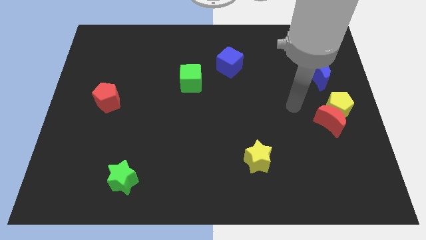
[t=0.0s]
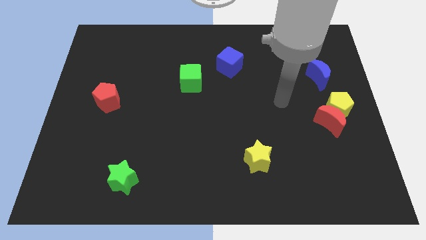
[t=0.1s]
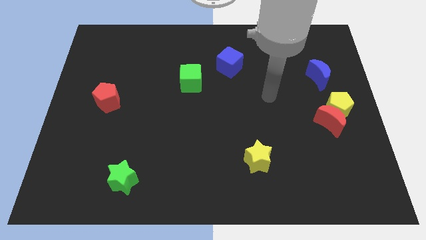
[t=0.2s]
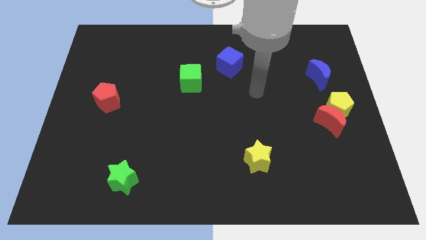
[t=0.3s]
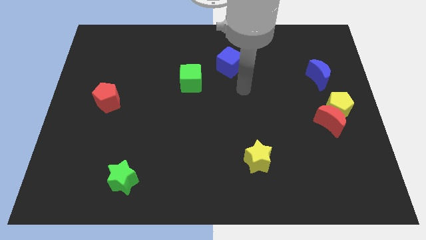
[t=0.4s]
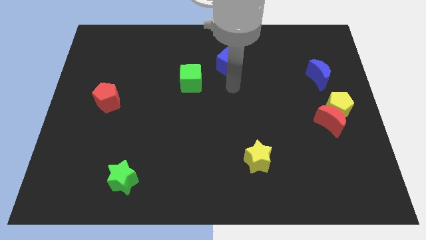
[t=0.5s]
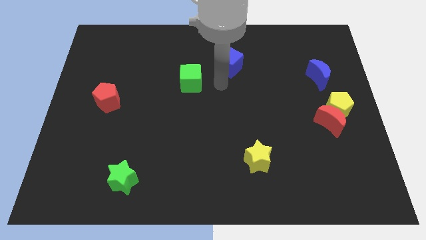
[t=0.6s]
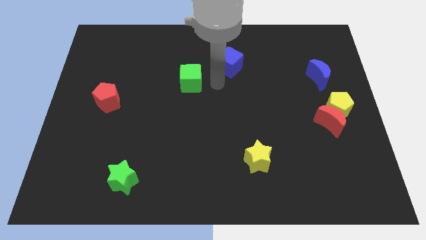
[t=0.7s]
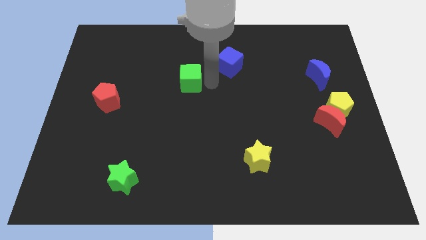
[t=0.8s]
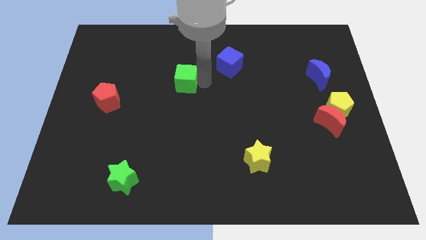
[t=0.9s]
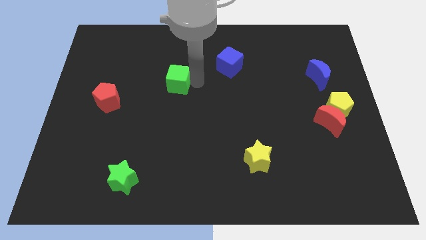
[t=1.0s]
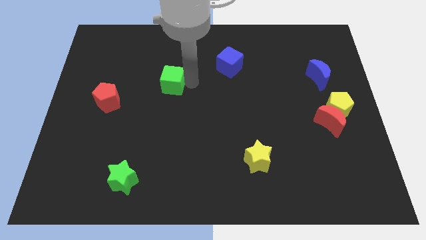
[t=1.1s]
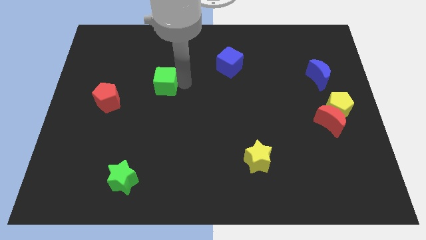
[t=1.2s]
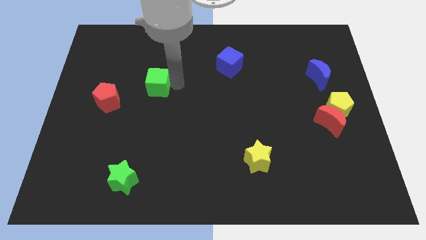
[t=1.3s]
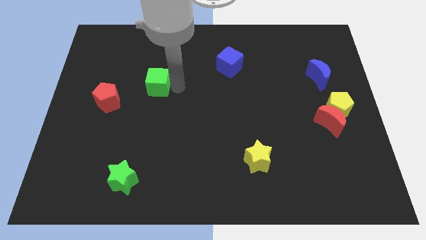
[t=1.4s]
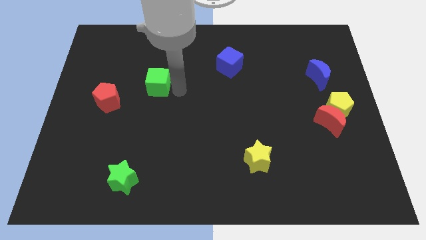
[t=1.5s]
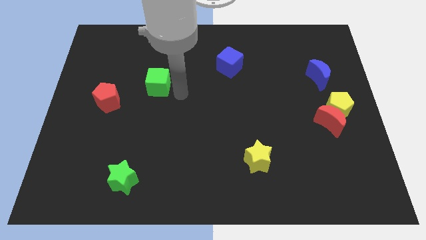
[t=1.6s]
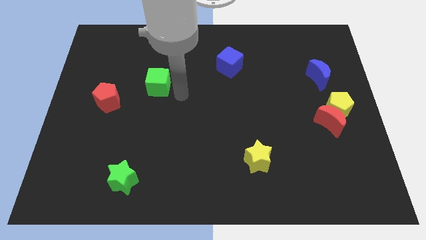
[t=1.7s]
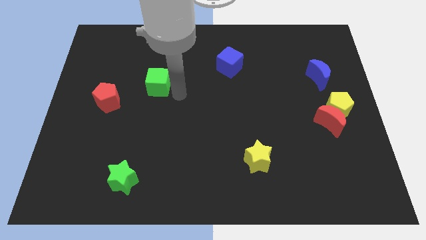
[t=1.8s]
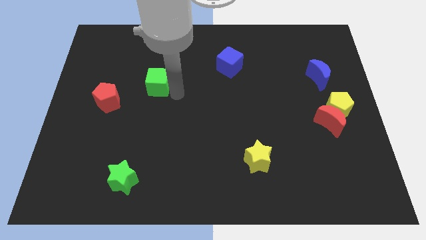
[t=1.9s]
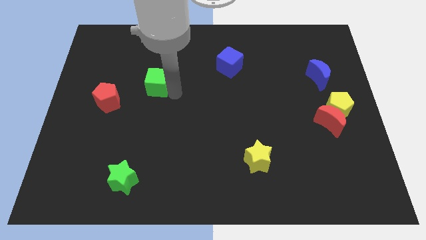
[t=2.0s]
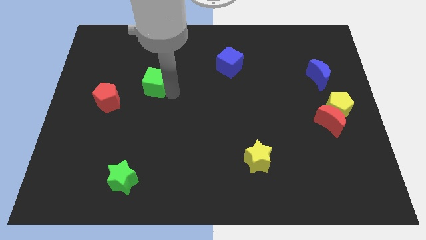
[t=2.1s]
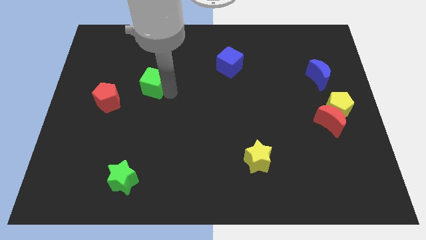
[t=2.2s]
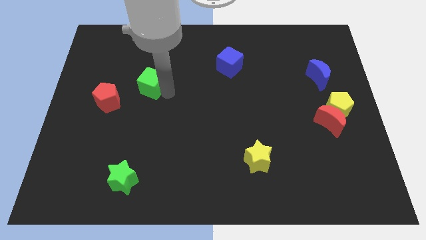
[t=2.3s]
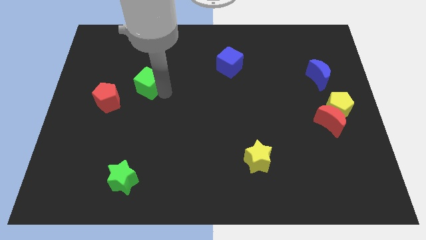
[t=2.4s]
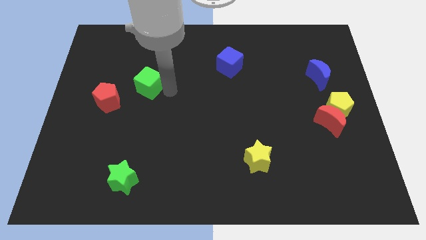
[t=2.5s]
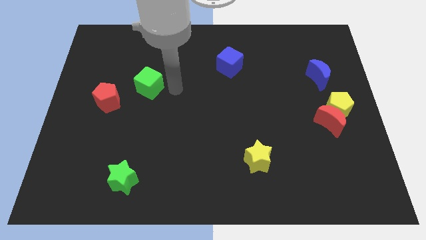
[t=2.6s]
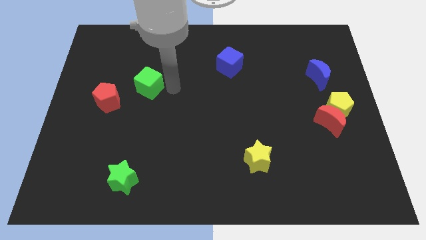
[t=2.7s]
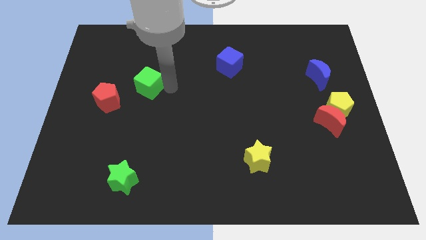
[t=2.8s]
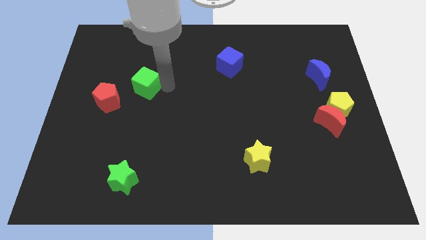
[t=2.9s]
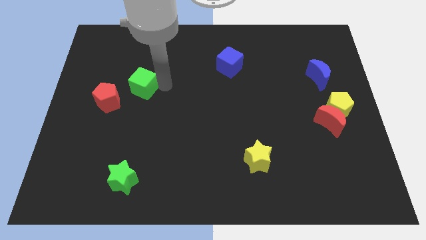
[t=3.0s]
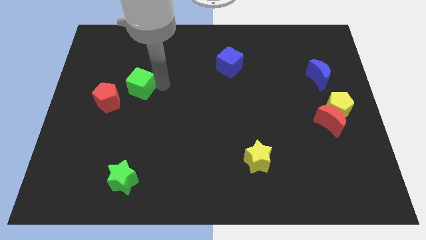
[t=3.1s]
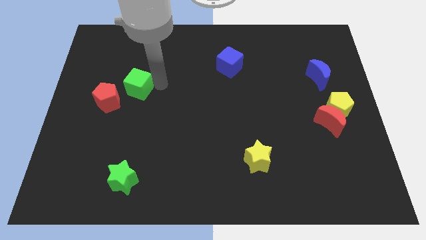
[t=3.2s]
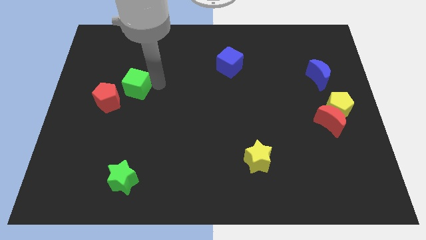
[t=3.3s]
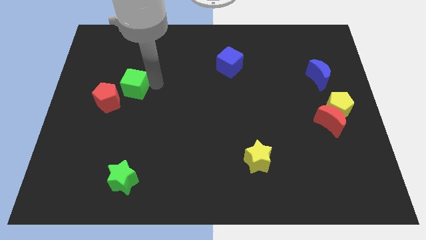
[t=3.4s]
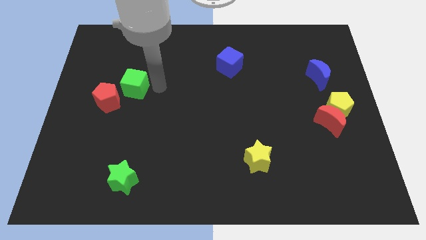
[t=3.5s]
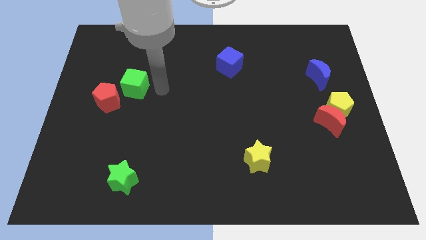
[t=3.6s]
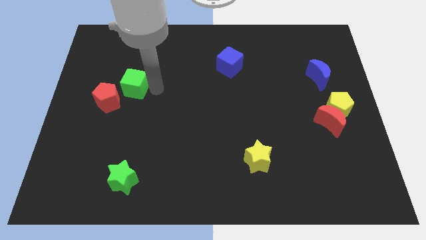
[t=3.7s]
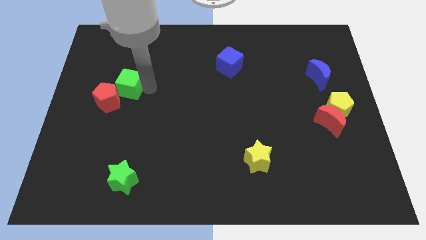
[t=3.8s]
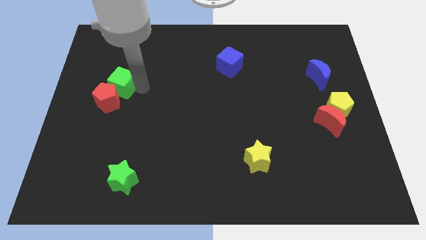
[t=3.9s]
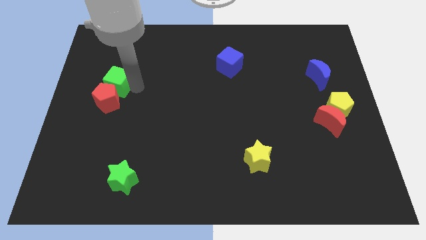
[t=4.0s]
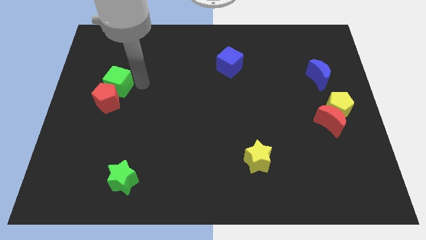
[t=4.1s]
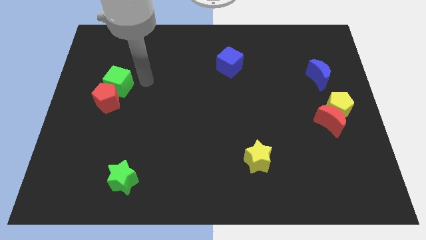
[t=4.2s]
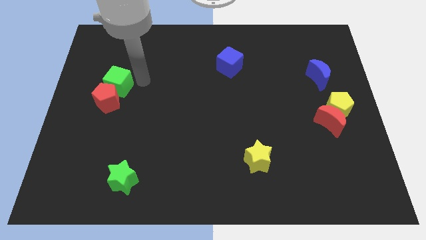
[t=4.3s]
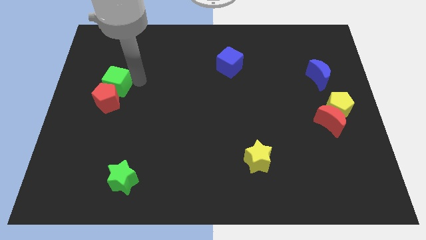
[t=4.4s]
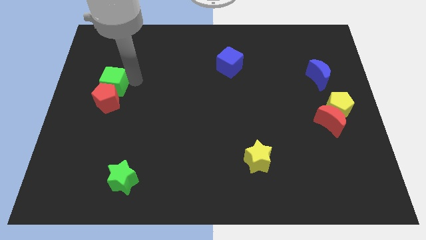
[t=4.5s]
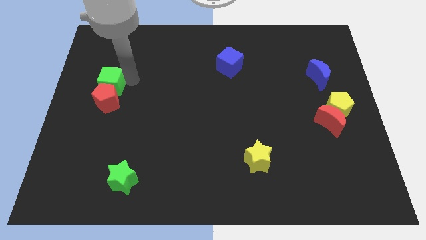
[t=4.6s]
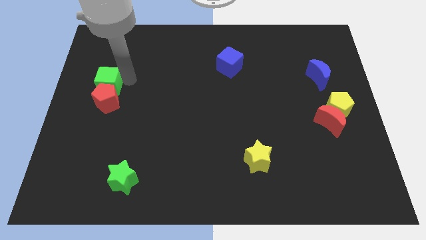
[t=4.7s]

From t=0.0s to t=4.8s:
slide the green cube to the center left

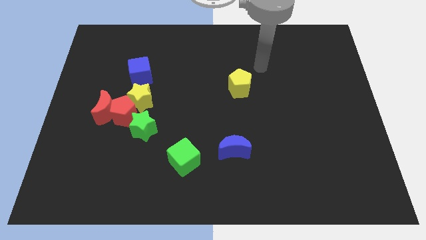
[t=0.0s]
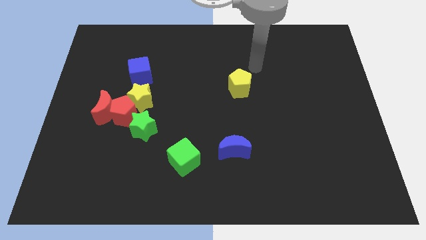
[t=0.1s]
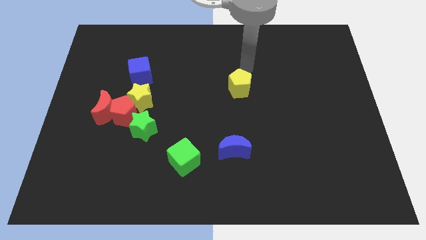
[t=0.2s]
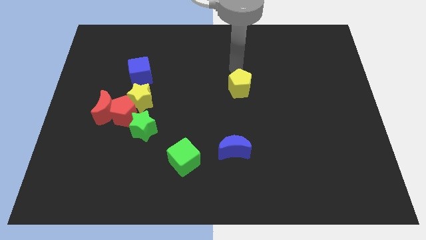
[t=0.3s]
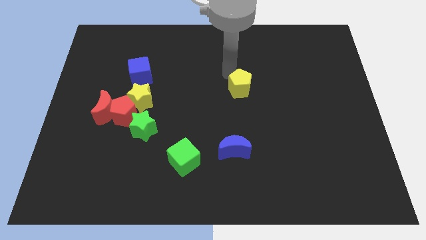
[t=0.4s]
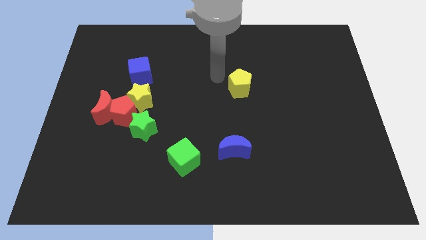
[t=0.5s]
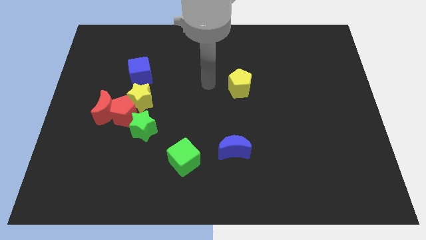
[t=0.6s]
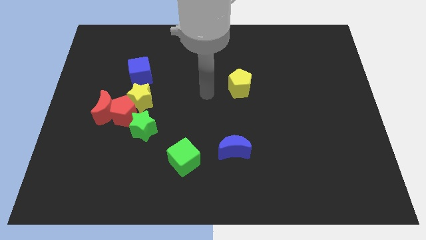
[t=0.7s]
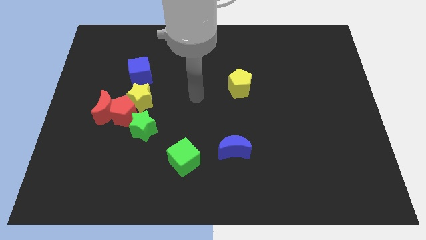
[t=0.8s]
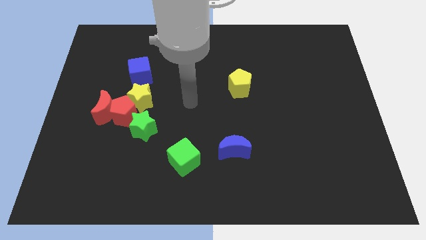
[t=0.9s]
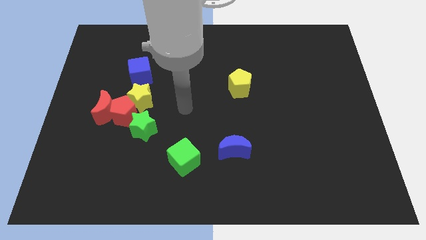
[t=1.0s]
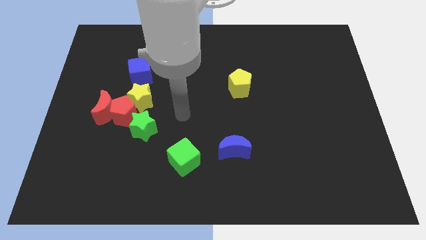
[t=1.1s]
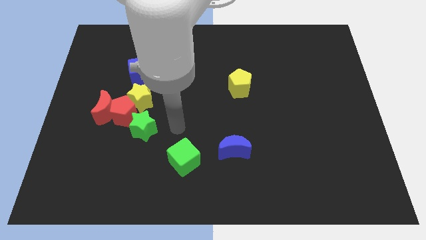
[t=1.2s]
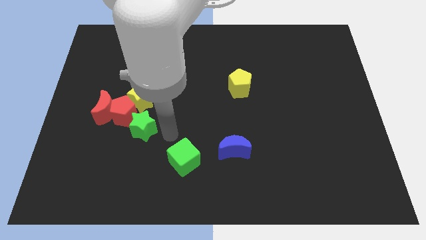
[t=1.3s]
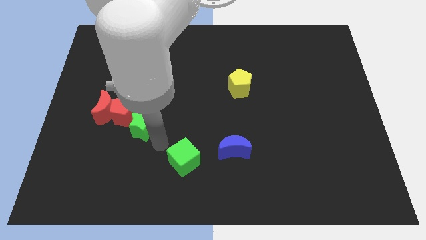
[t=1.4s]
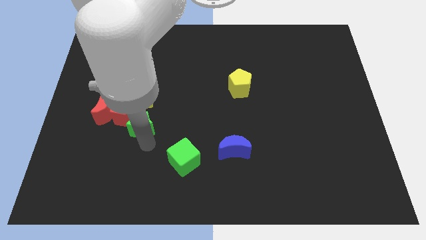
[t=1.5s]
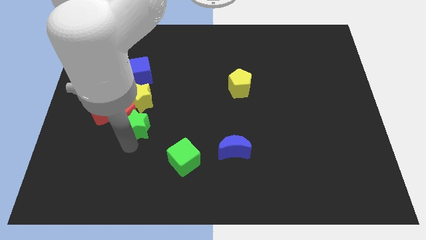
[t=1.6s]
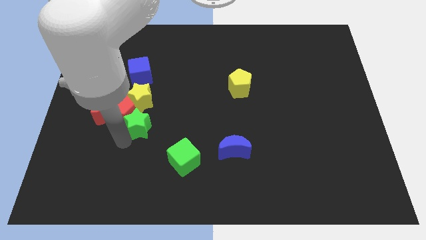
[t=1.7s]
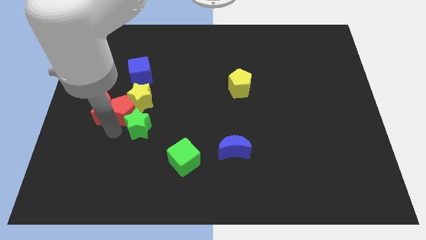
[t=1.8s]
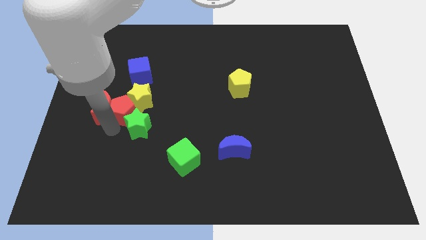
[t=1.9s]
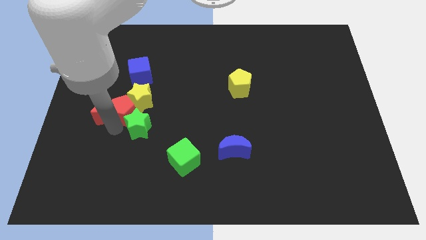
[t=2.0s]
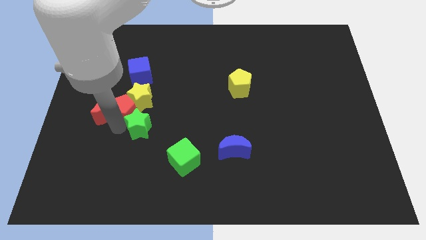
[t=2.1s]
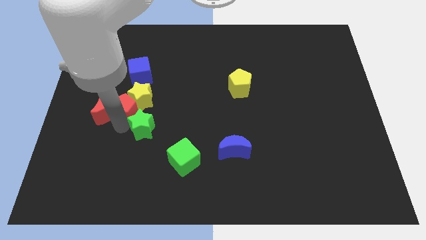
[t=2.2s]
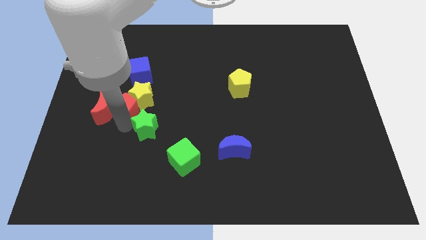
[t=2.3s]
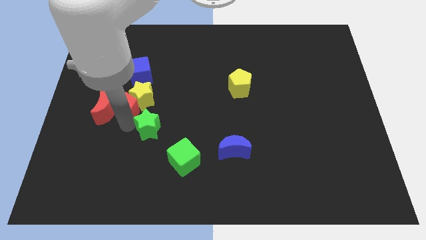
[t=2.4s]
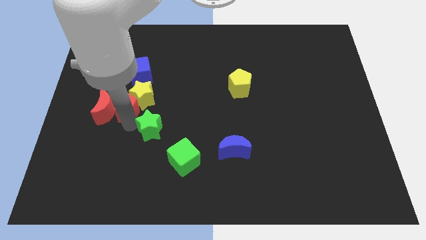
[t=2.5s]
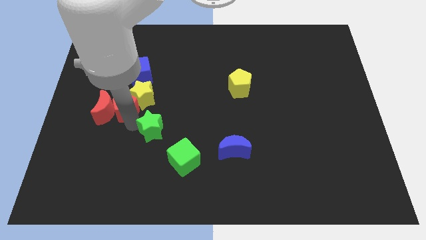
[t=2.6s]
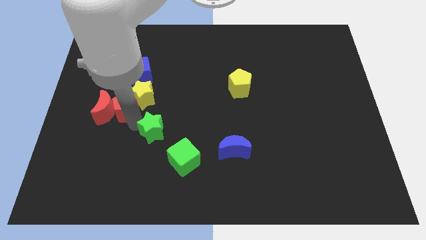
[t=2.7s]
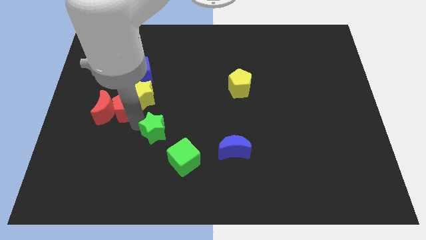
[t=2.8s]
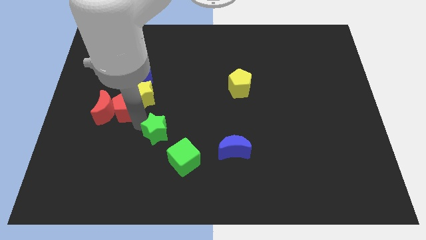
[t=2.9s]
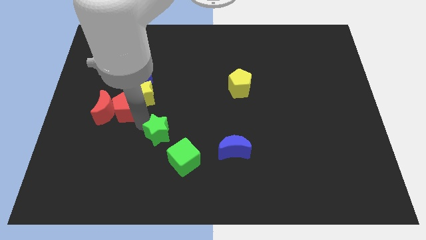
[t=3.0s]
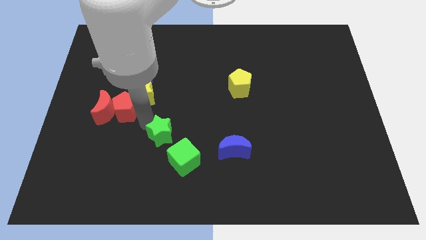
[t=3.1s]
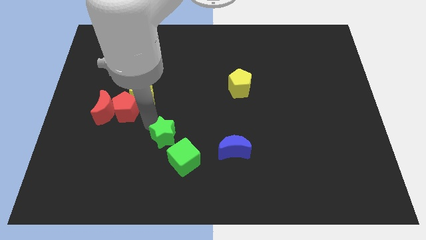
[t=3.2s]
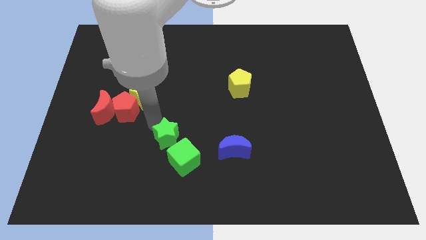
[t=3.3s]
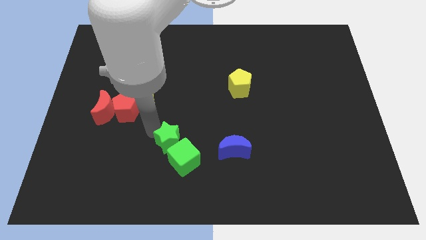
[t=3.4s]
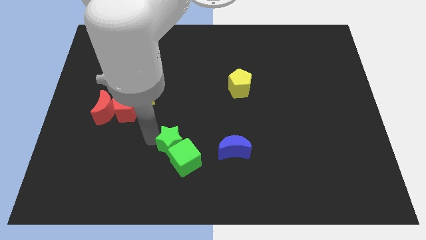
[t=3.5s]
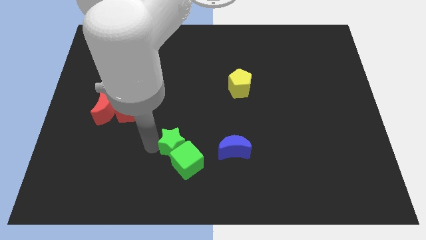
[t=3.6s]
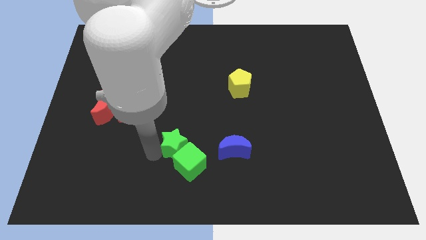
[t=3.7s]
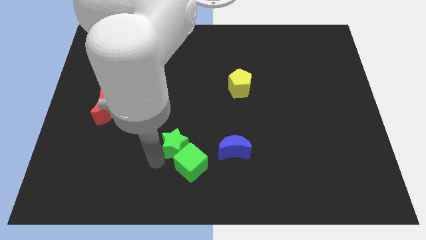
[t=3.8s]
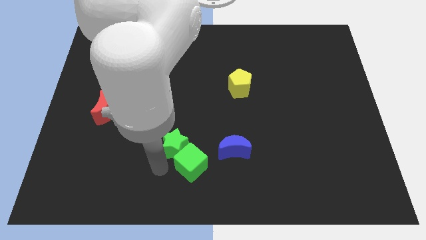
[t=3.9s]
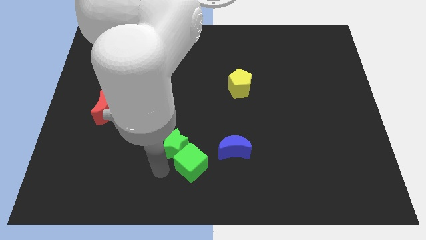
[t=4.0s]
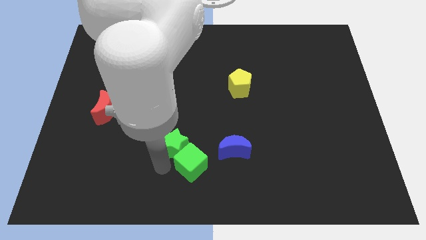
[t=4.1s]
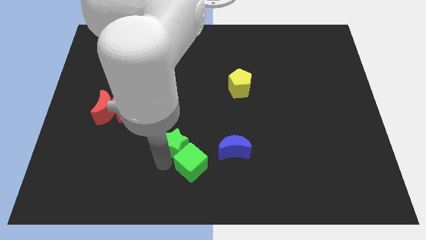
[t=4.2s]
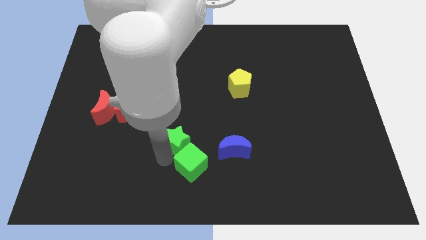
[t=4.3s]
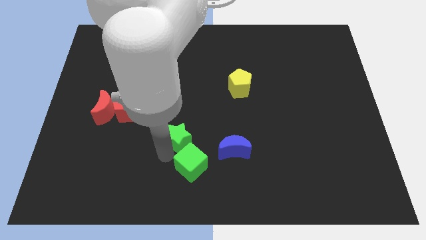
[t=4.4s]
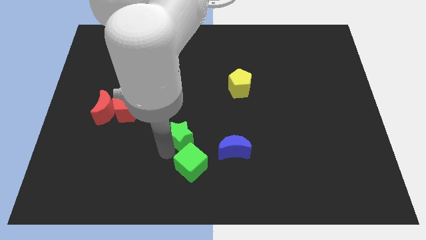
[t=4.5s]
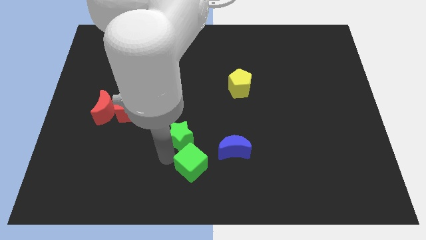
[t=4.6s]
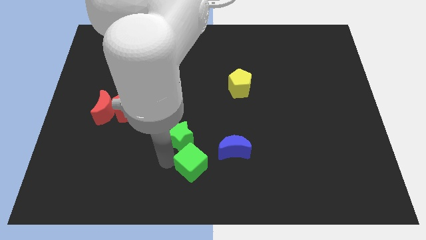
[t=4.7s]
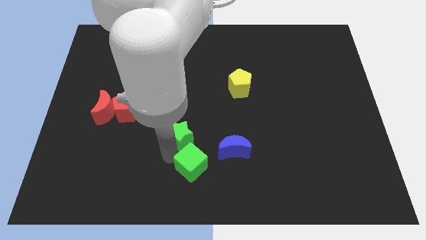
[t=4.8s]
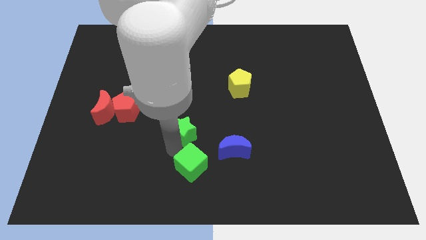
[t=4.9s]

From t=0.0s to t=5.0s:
slide the green star to the middle
